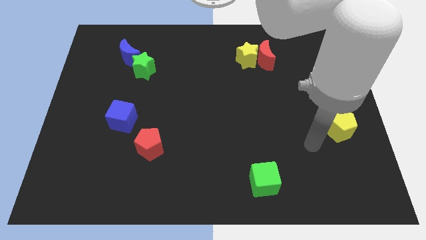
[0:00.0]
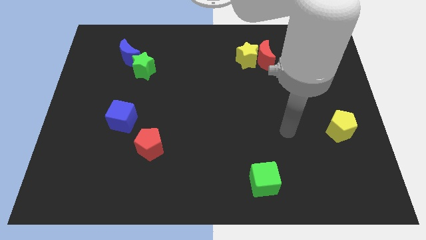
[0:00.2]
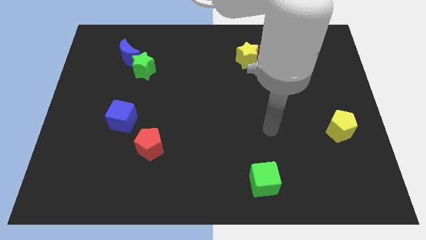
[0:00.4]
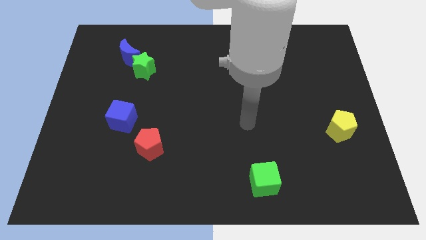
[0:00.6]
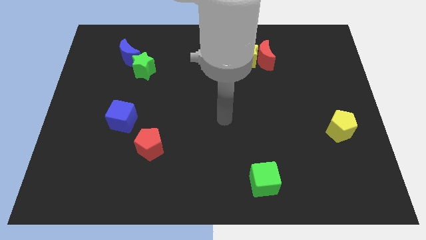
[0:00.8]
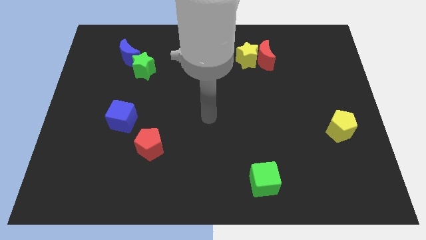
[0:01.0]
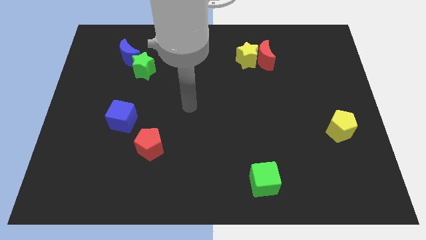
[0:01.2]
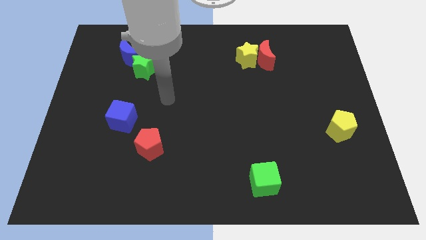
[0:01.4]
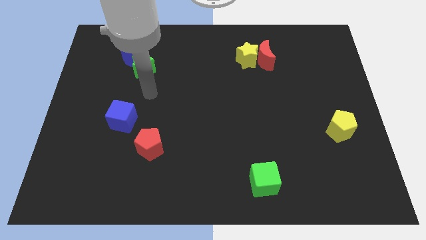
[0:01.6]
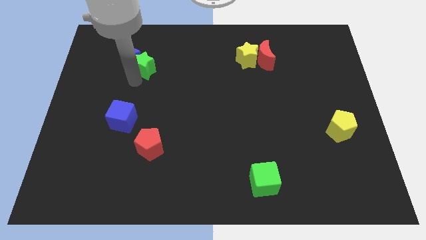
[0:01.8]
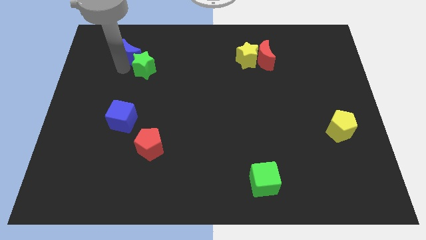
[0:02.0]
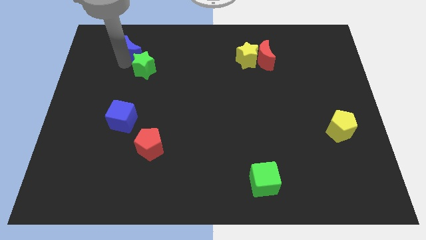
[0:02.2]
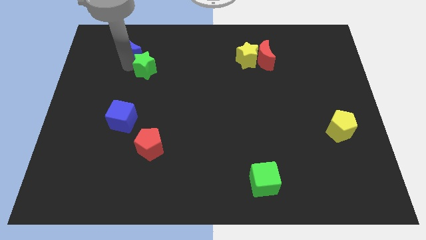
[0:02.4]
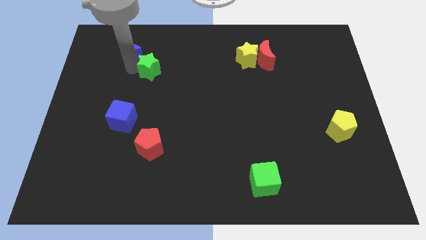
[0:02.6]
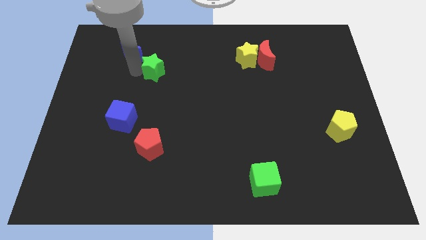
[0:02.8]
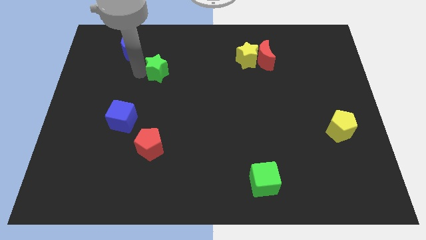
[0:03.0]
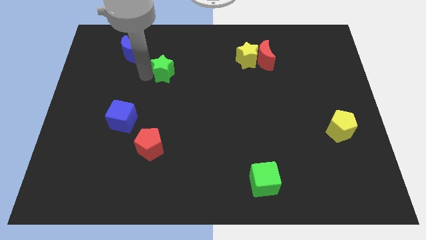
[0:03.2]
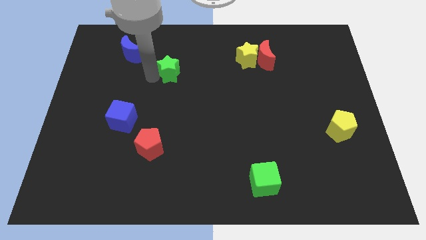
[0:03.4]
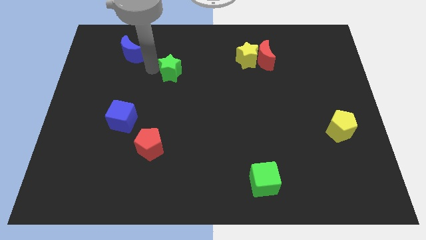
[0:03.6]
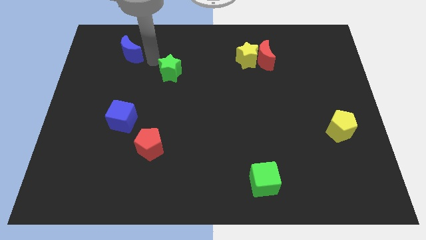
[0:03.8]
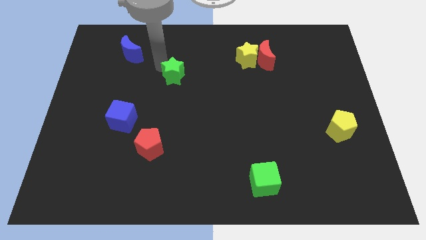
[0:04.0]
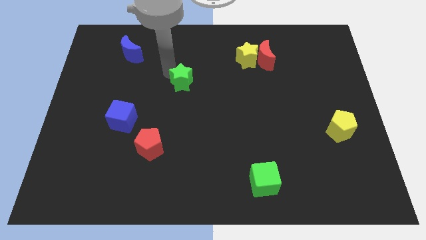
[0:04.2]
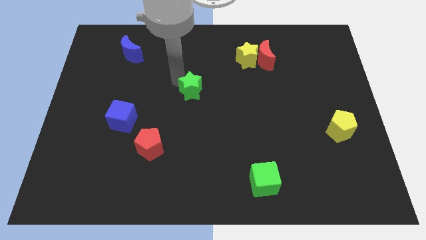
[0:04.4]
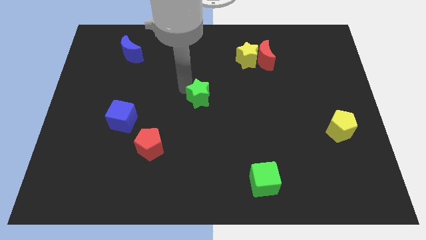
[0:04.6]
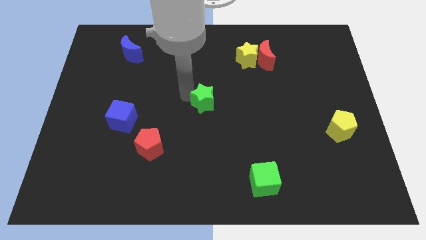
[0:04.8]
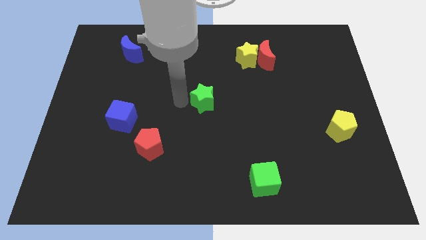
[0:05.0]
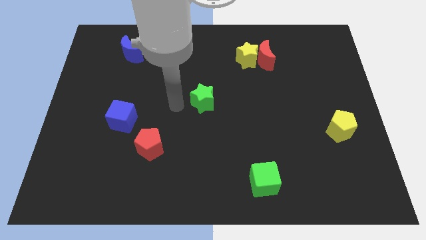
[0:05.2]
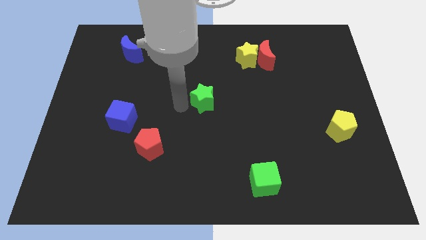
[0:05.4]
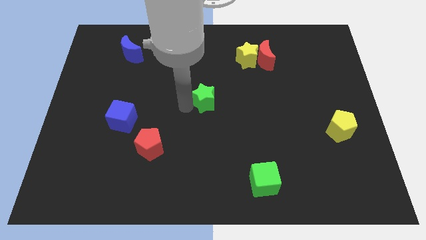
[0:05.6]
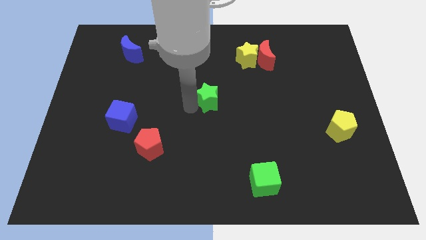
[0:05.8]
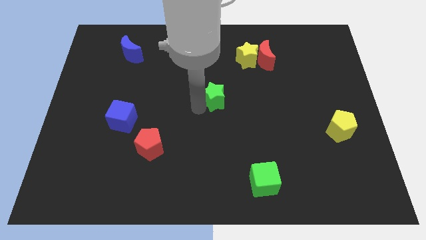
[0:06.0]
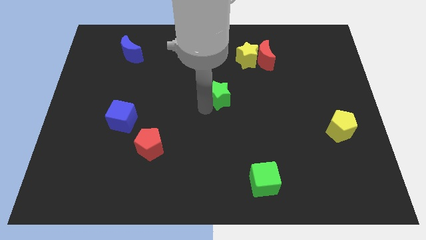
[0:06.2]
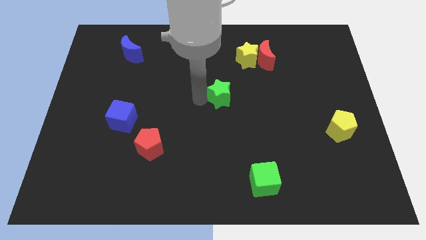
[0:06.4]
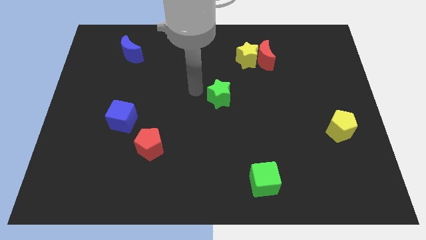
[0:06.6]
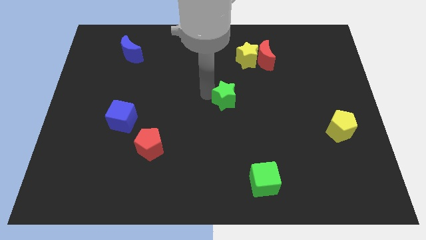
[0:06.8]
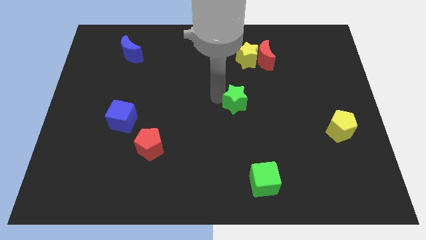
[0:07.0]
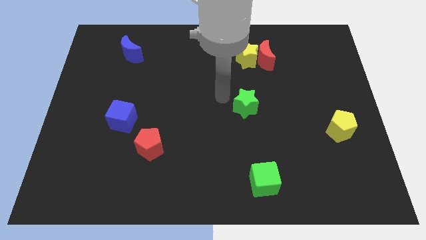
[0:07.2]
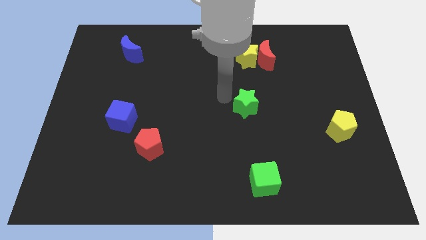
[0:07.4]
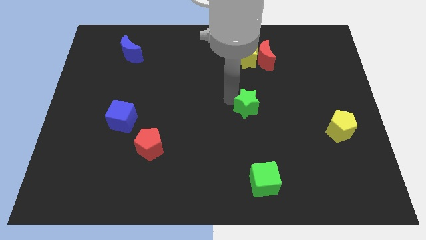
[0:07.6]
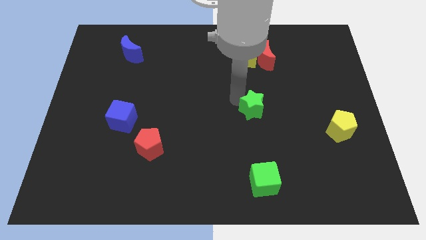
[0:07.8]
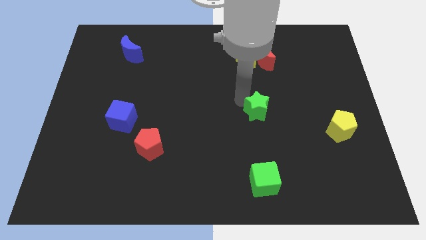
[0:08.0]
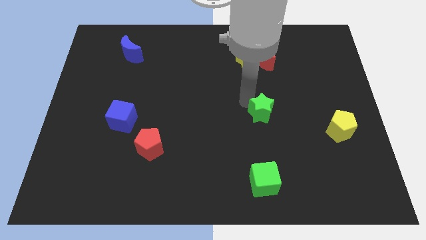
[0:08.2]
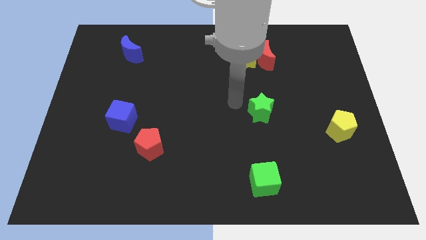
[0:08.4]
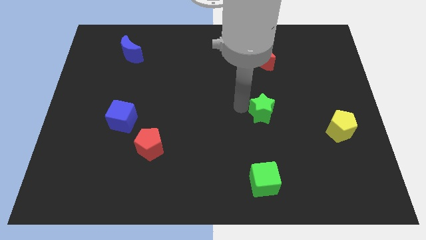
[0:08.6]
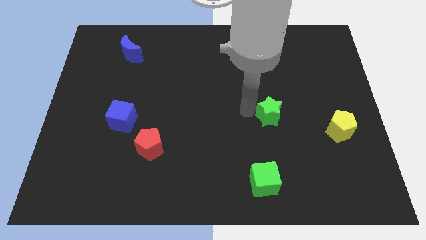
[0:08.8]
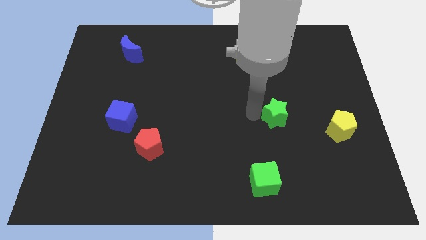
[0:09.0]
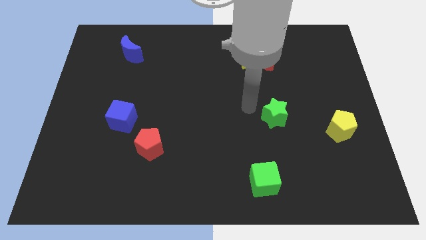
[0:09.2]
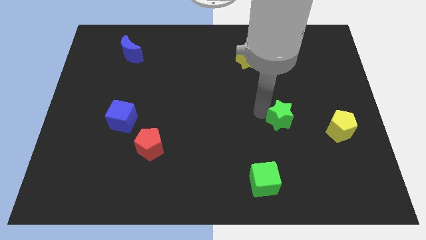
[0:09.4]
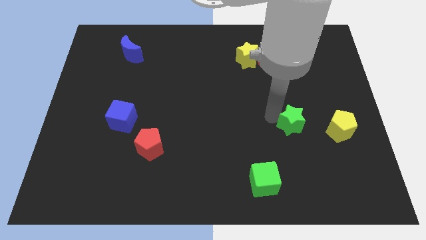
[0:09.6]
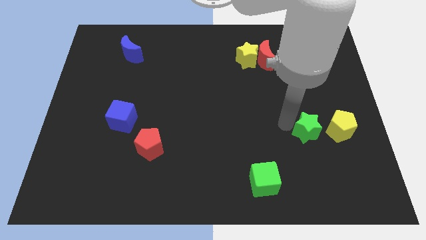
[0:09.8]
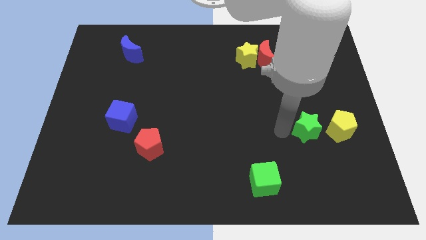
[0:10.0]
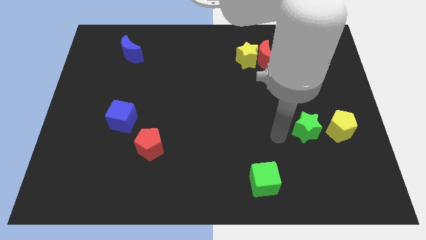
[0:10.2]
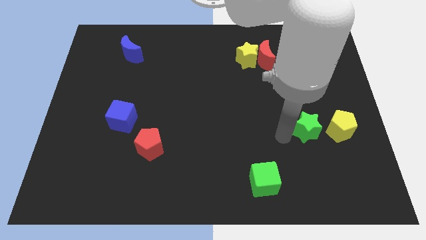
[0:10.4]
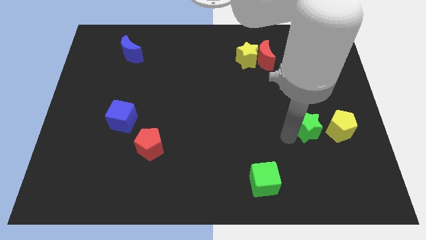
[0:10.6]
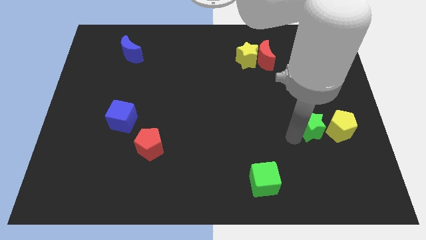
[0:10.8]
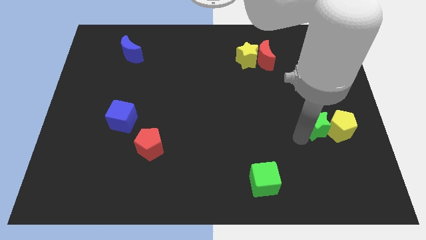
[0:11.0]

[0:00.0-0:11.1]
slide the green star towards the yellow pentagon

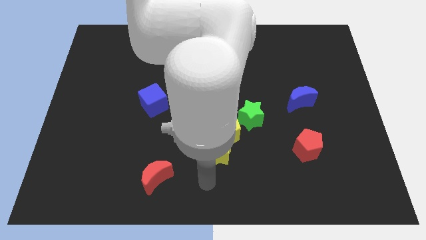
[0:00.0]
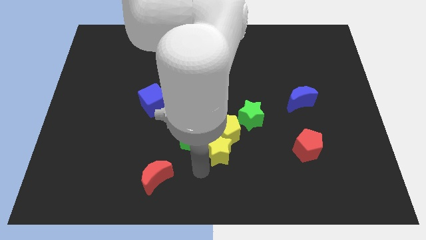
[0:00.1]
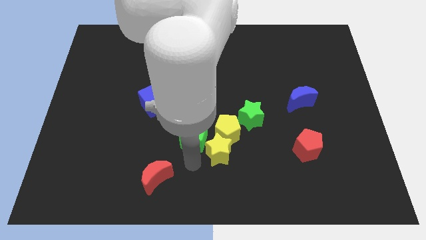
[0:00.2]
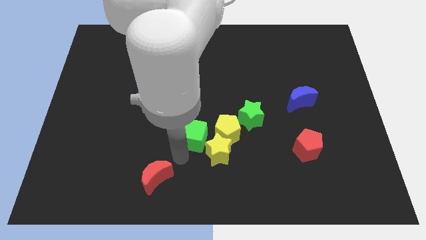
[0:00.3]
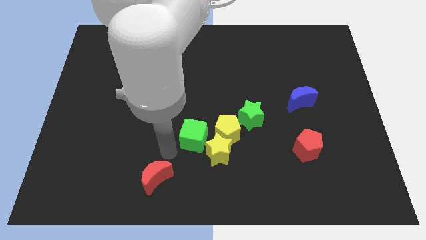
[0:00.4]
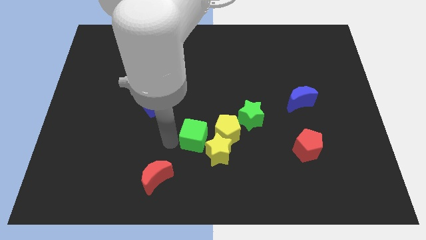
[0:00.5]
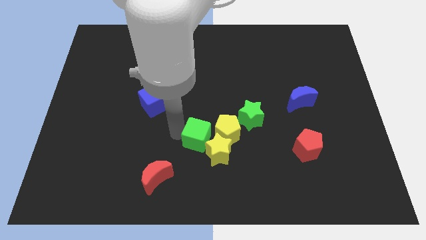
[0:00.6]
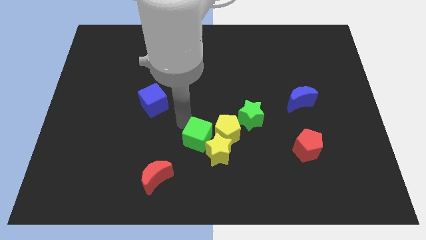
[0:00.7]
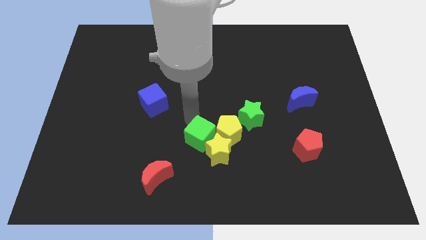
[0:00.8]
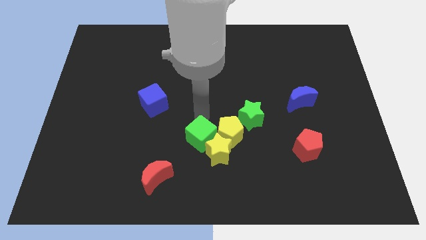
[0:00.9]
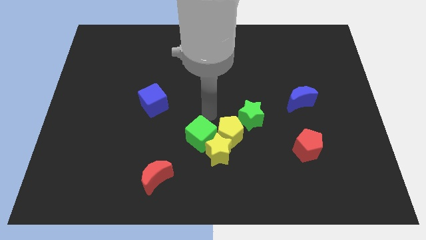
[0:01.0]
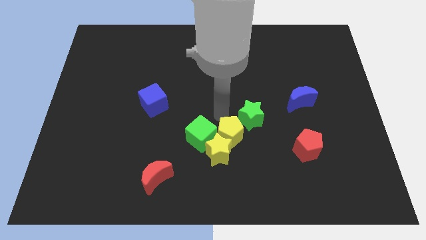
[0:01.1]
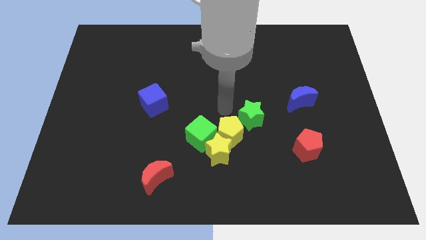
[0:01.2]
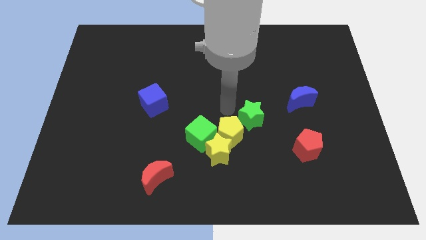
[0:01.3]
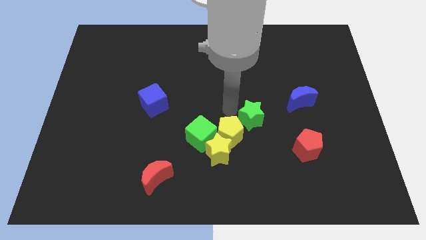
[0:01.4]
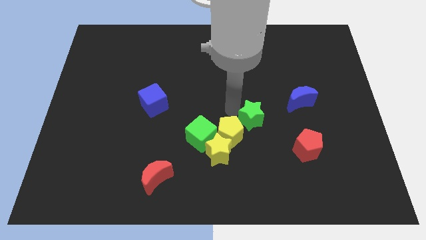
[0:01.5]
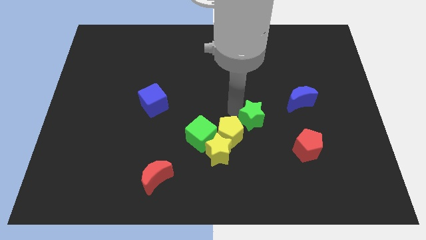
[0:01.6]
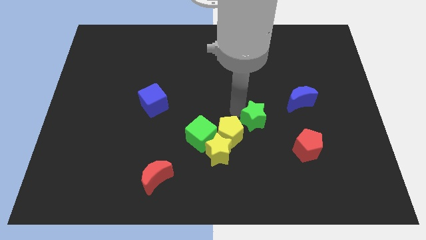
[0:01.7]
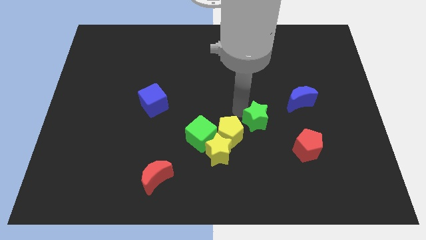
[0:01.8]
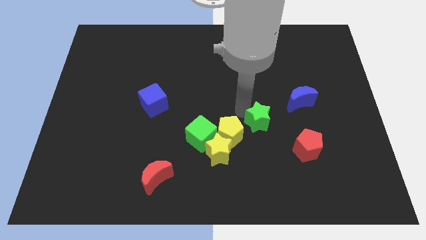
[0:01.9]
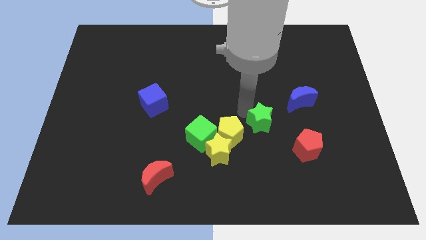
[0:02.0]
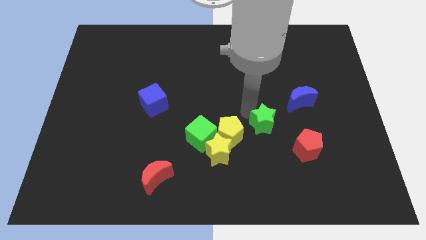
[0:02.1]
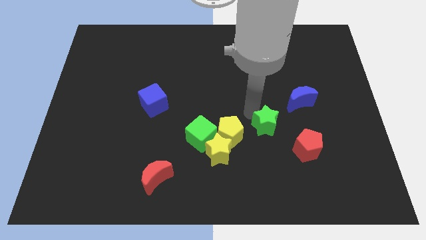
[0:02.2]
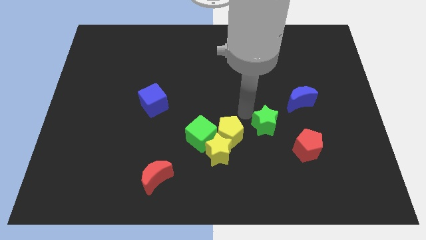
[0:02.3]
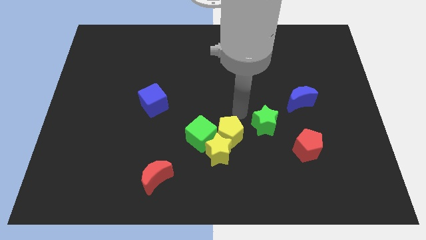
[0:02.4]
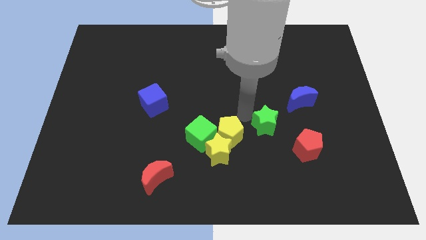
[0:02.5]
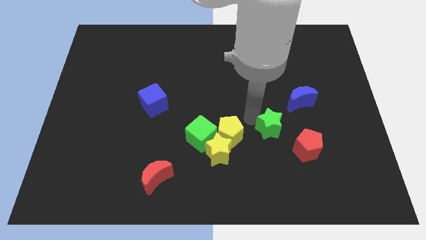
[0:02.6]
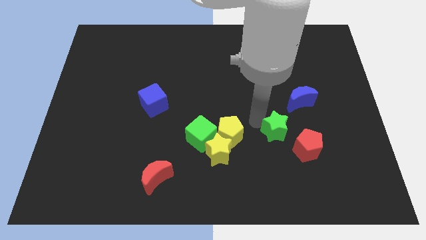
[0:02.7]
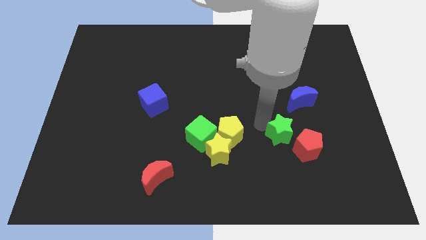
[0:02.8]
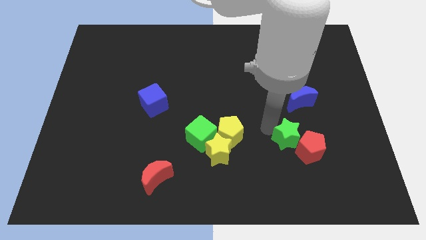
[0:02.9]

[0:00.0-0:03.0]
move the green star close to the red pentagon
